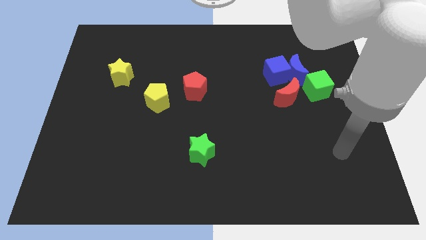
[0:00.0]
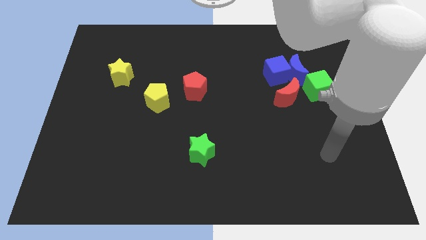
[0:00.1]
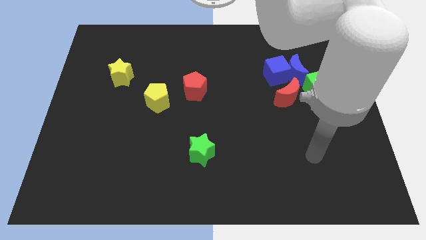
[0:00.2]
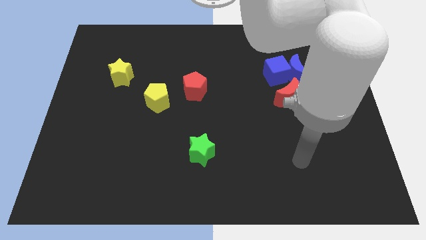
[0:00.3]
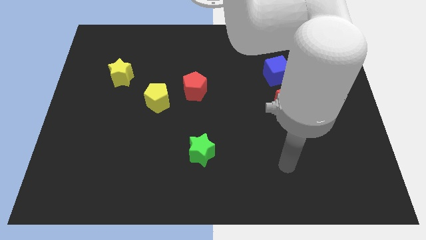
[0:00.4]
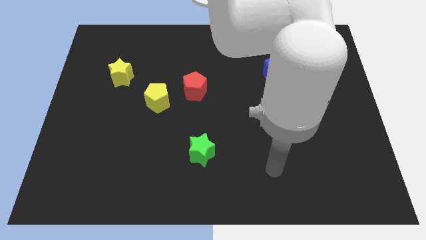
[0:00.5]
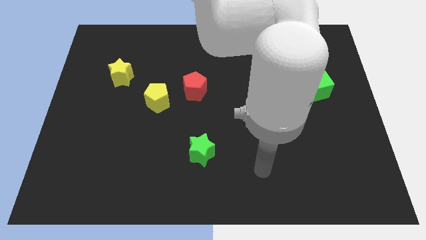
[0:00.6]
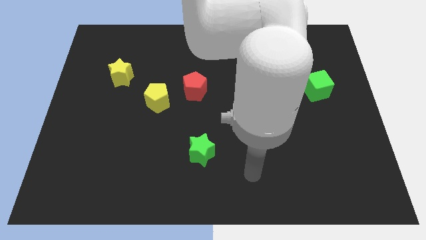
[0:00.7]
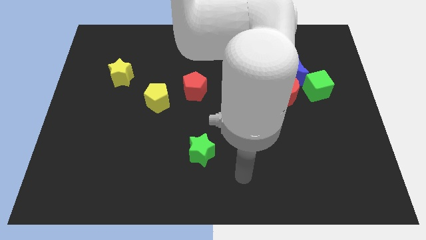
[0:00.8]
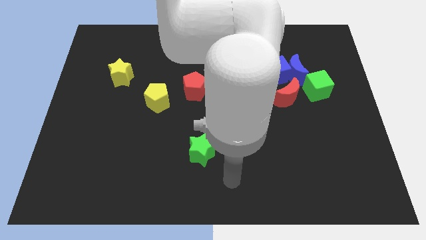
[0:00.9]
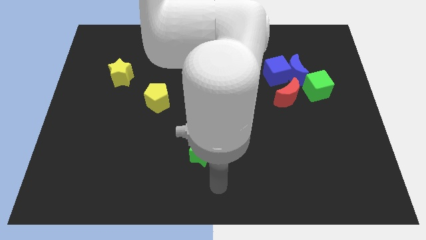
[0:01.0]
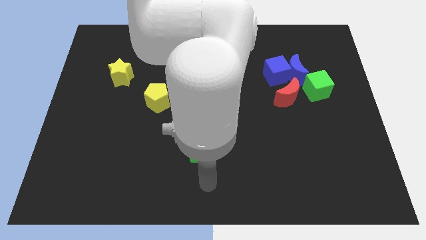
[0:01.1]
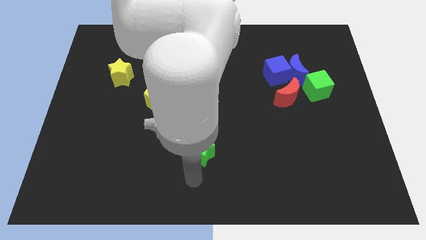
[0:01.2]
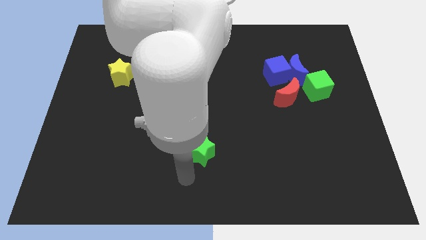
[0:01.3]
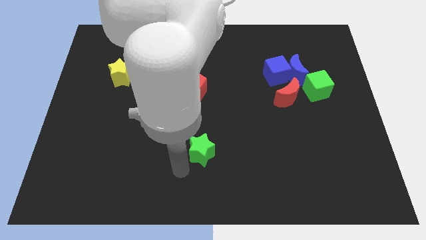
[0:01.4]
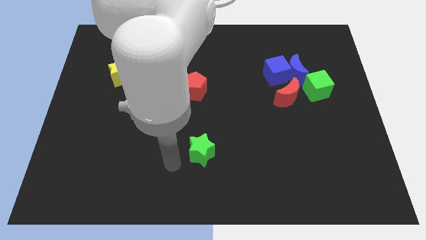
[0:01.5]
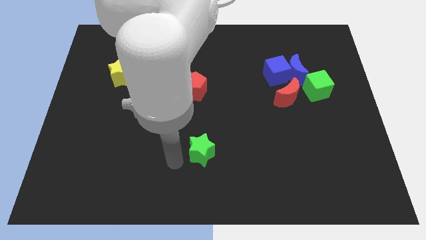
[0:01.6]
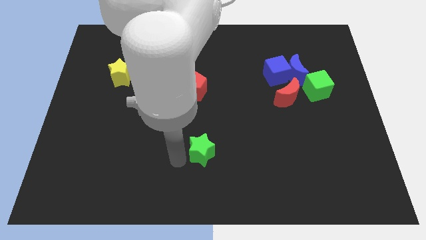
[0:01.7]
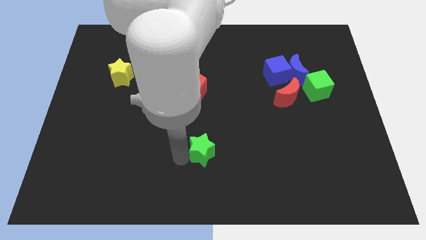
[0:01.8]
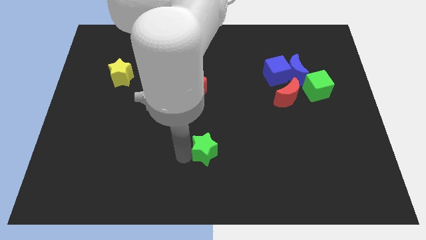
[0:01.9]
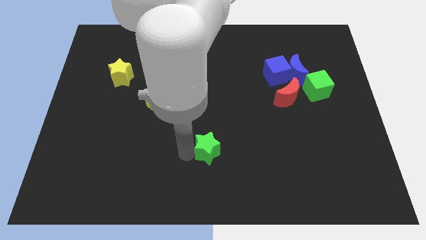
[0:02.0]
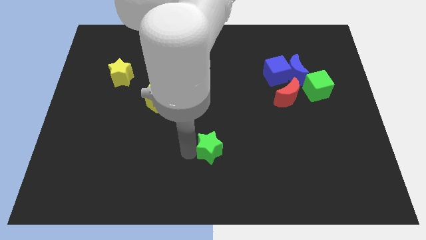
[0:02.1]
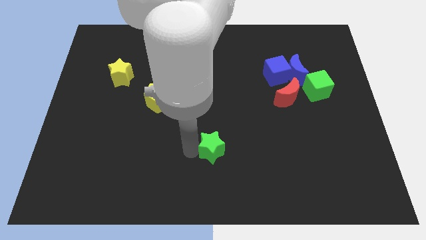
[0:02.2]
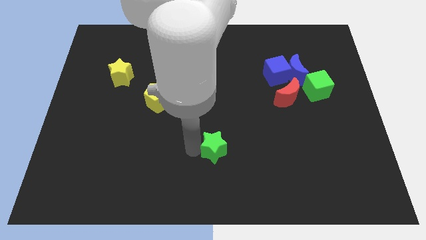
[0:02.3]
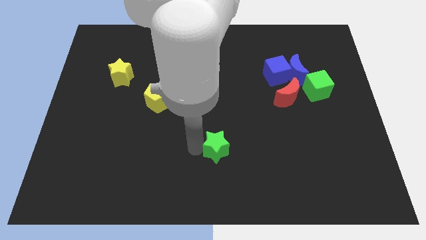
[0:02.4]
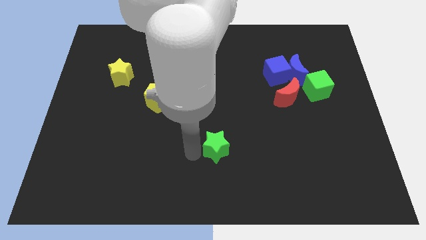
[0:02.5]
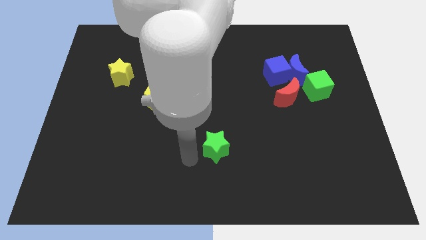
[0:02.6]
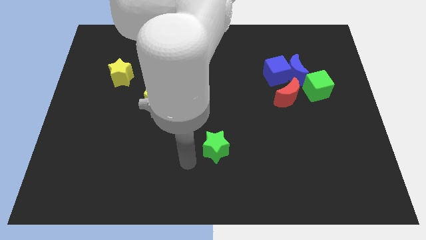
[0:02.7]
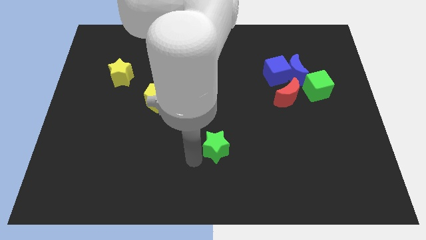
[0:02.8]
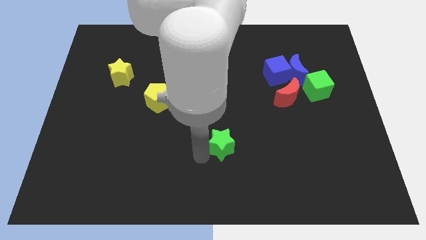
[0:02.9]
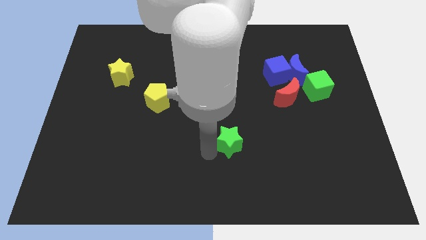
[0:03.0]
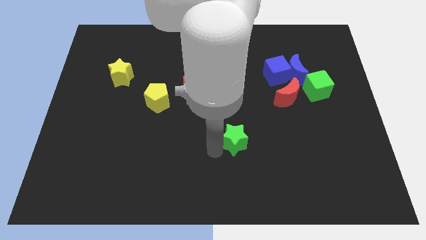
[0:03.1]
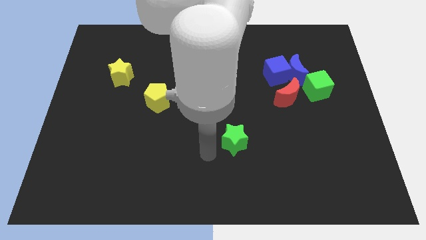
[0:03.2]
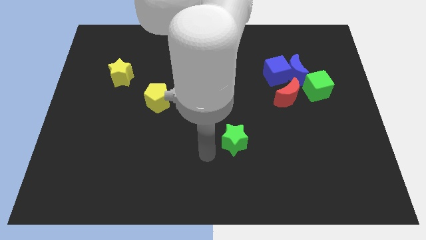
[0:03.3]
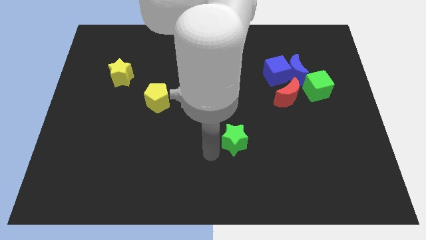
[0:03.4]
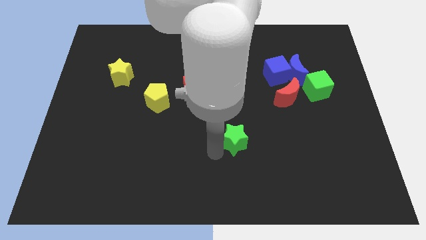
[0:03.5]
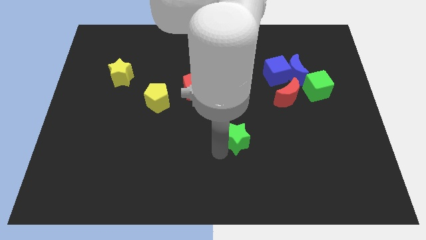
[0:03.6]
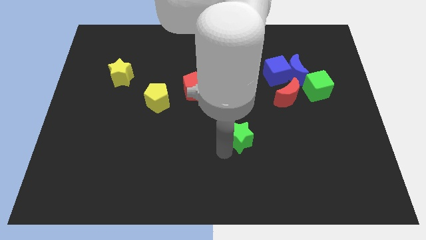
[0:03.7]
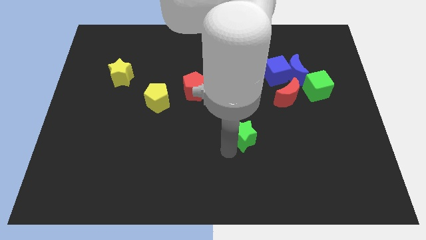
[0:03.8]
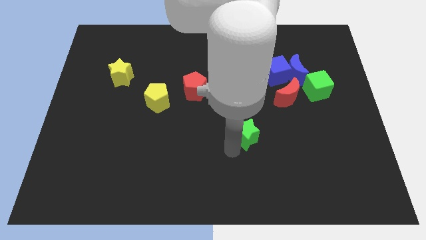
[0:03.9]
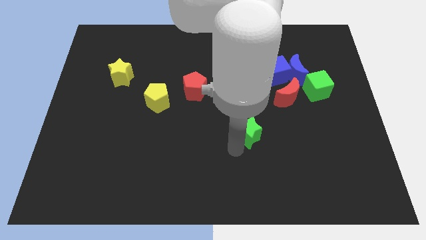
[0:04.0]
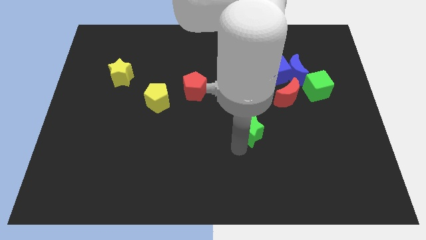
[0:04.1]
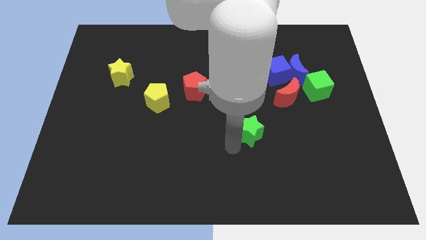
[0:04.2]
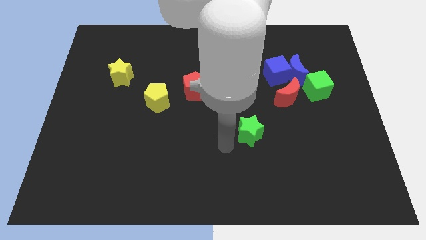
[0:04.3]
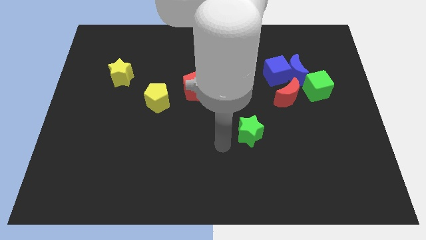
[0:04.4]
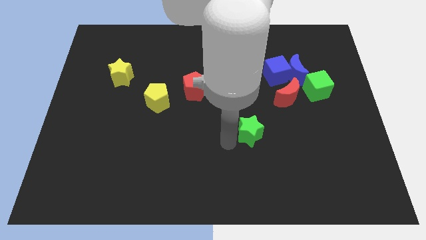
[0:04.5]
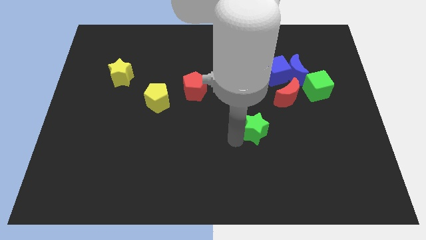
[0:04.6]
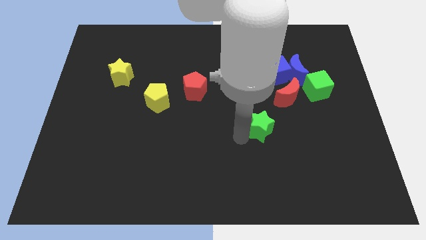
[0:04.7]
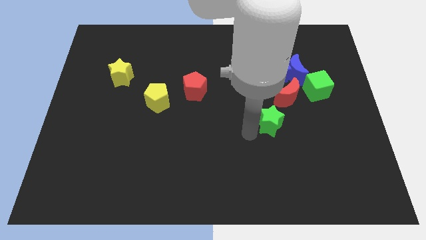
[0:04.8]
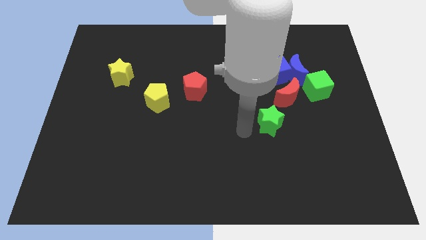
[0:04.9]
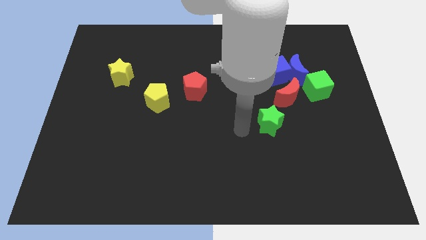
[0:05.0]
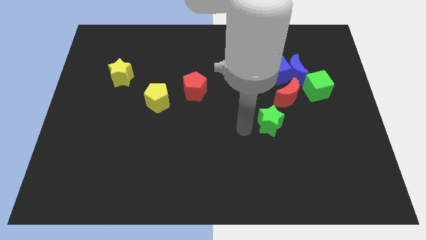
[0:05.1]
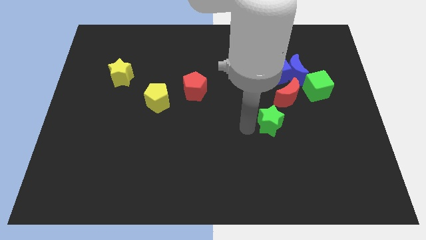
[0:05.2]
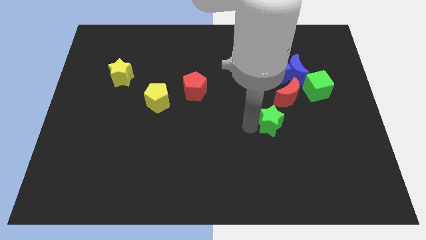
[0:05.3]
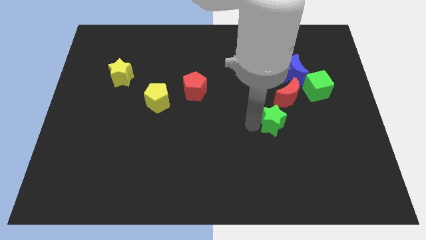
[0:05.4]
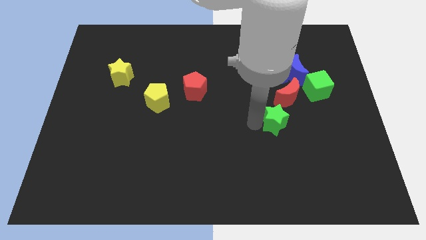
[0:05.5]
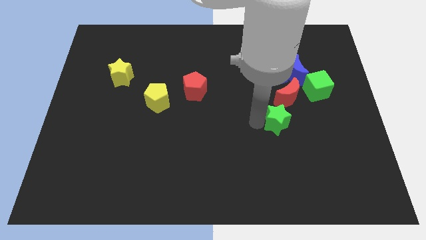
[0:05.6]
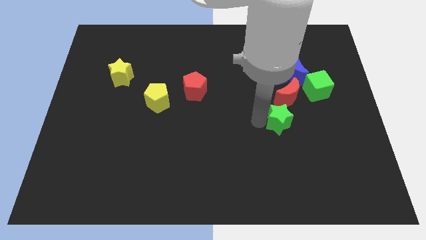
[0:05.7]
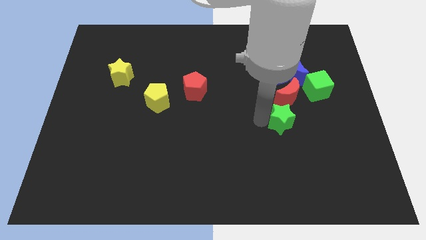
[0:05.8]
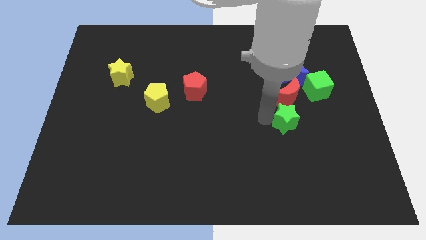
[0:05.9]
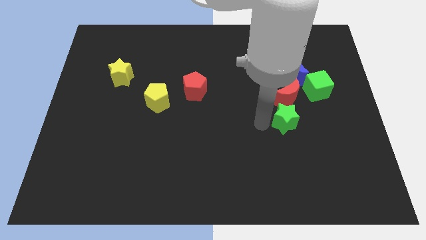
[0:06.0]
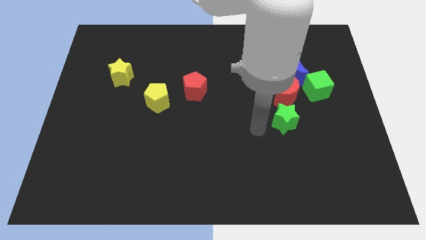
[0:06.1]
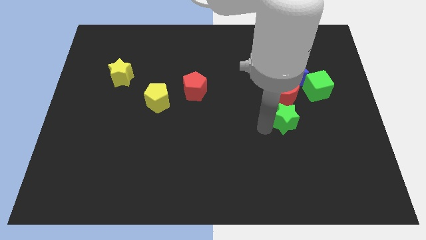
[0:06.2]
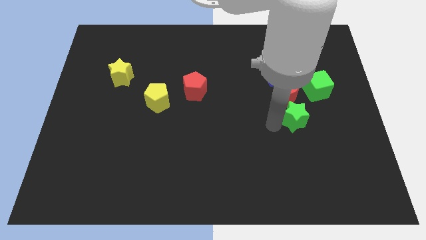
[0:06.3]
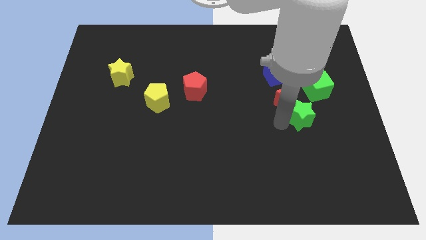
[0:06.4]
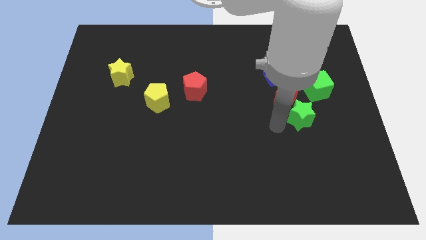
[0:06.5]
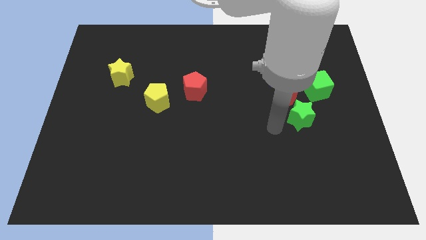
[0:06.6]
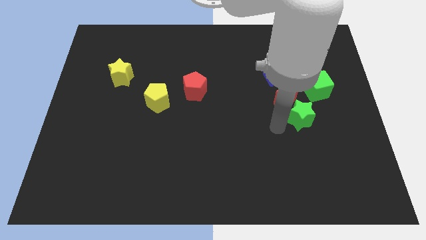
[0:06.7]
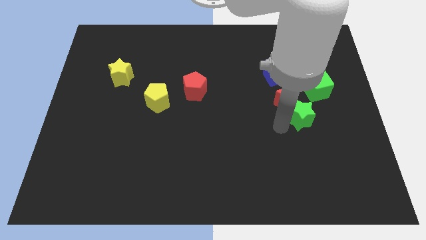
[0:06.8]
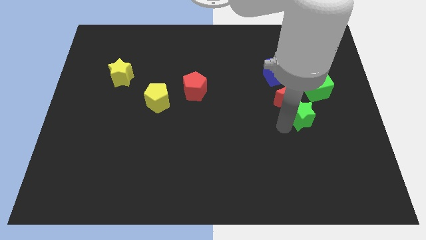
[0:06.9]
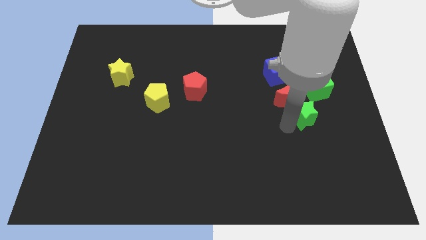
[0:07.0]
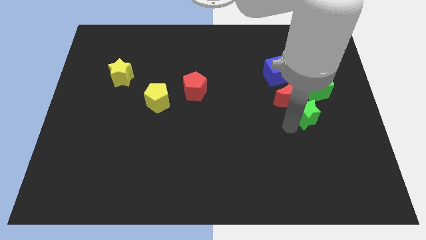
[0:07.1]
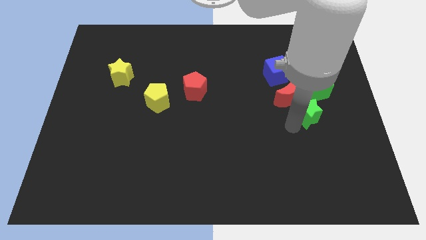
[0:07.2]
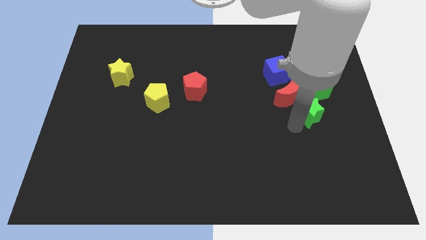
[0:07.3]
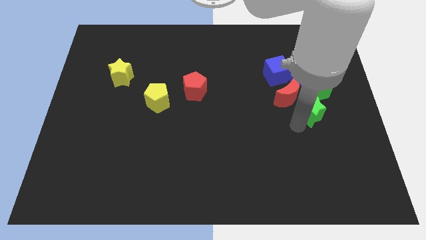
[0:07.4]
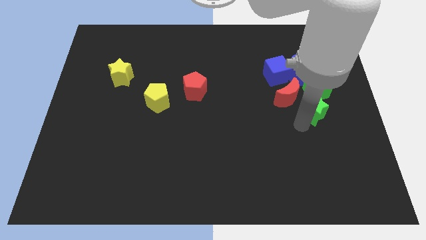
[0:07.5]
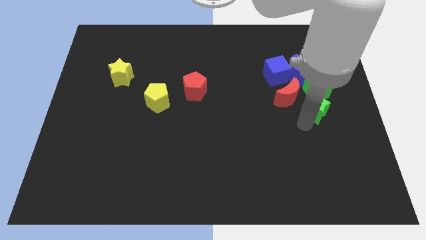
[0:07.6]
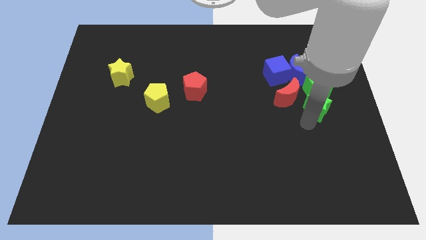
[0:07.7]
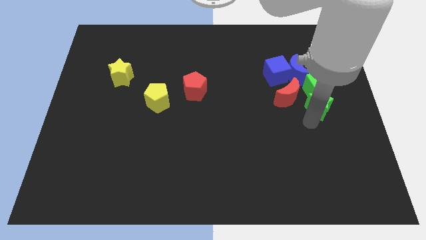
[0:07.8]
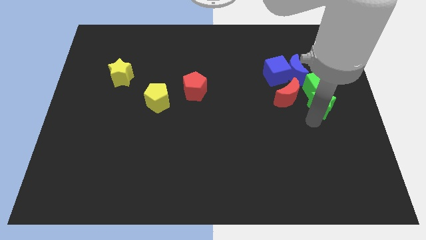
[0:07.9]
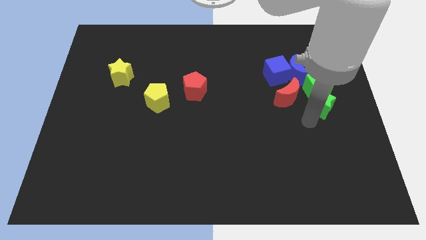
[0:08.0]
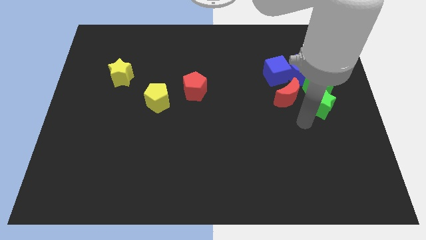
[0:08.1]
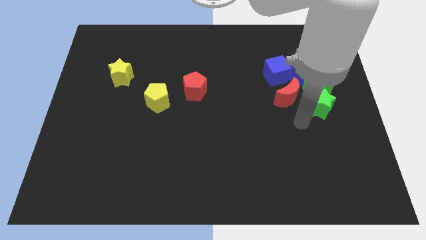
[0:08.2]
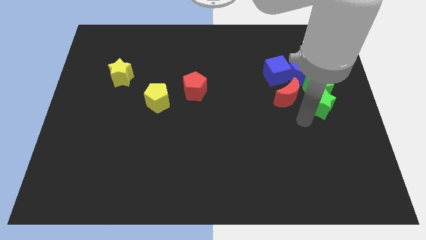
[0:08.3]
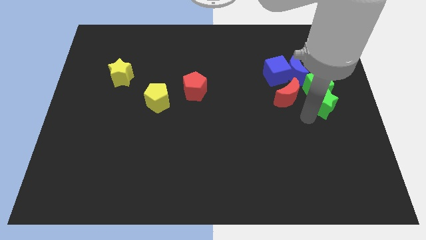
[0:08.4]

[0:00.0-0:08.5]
move the green star to the bottom right of the blue moon
